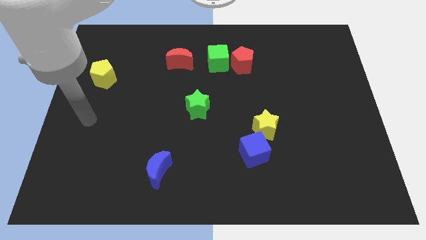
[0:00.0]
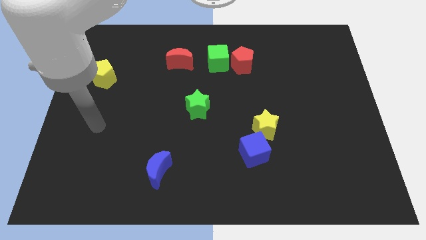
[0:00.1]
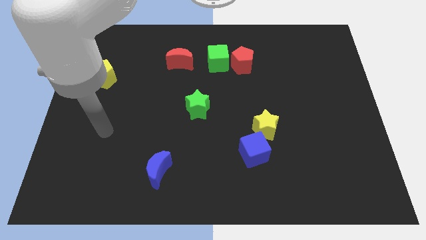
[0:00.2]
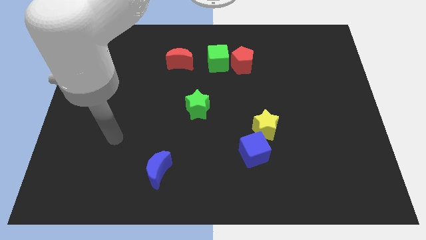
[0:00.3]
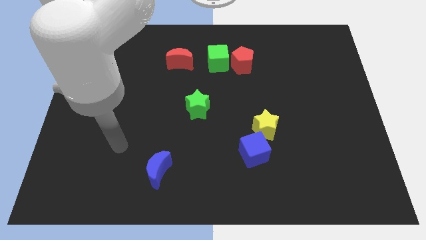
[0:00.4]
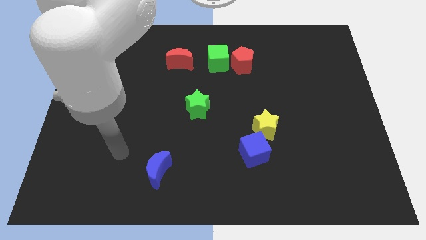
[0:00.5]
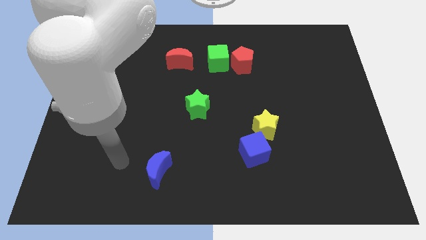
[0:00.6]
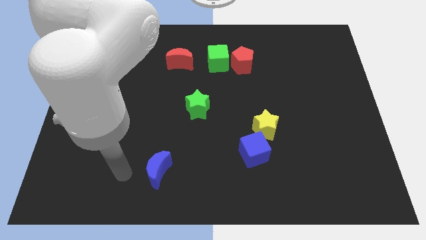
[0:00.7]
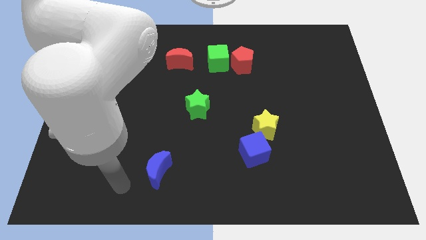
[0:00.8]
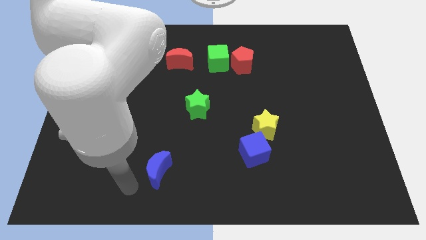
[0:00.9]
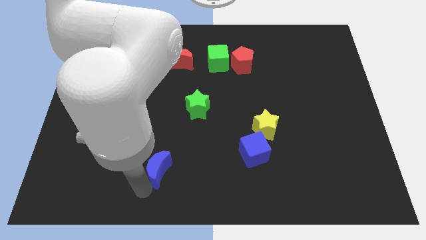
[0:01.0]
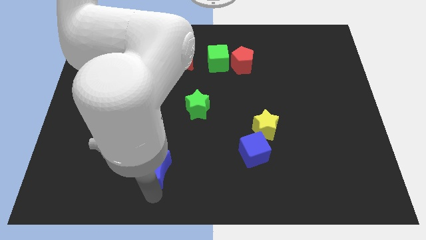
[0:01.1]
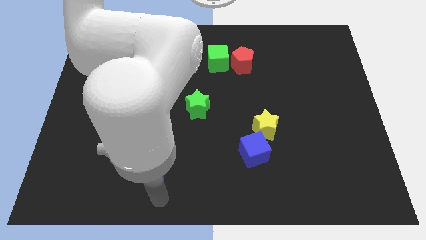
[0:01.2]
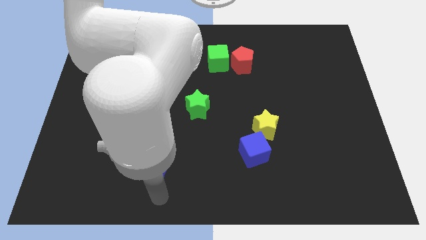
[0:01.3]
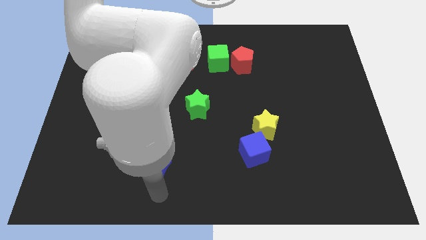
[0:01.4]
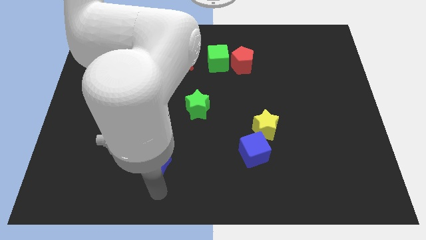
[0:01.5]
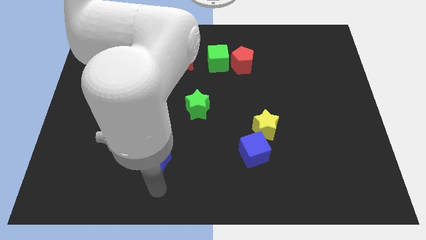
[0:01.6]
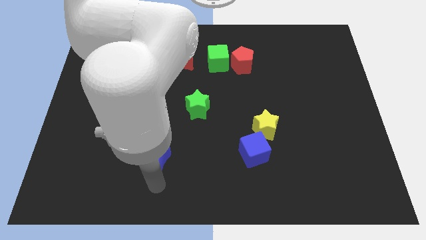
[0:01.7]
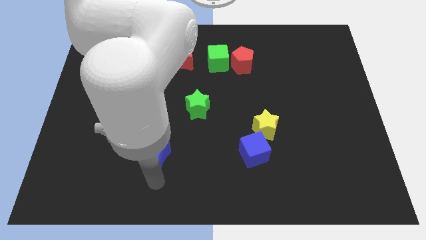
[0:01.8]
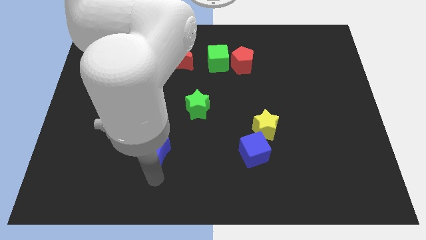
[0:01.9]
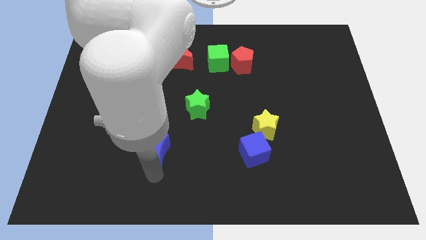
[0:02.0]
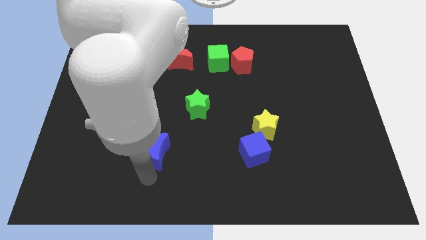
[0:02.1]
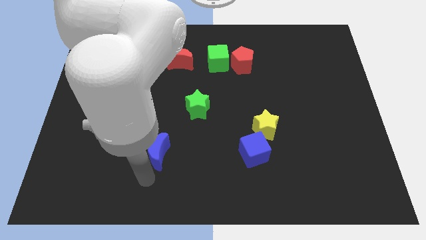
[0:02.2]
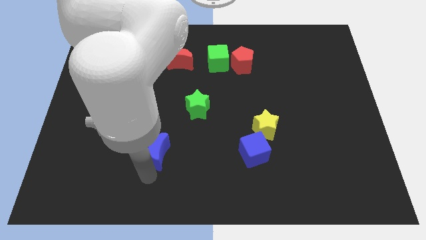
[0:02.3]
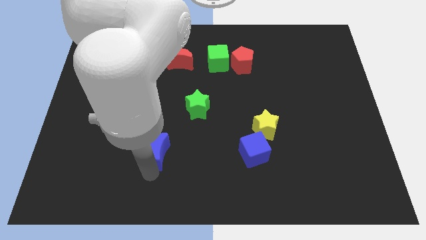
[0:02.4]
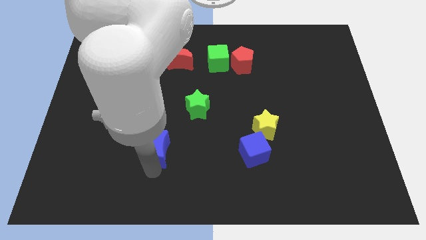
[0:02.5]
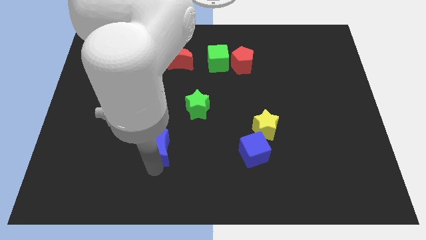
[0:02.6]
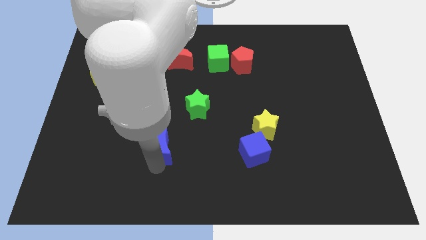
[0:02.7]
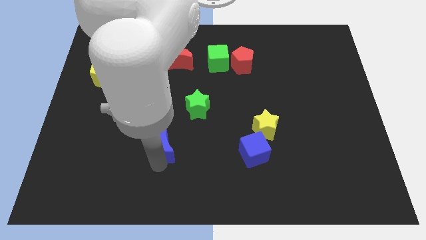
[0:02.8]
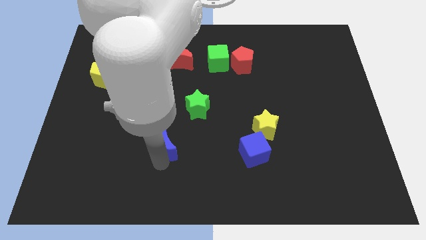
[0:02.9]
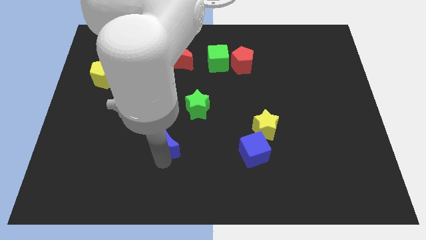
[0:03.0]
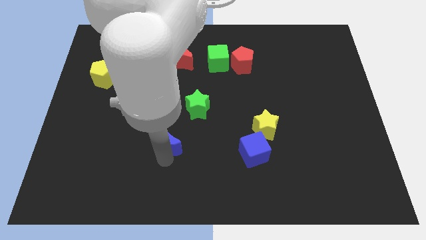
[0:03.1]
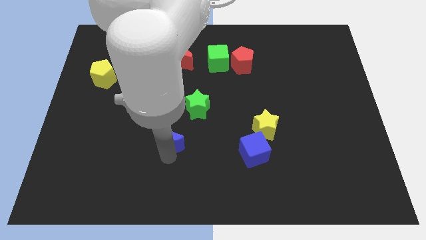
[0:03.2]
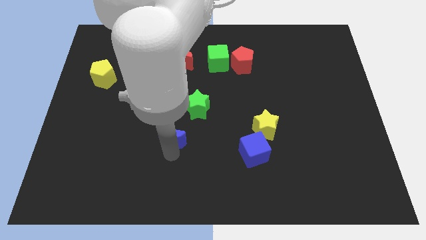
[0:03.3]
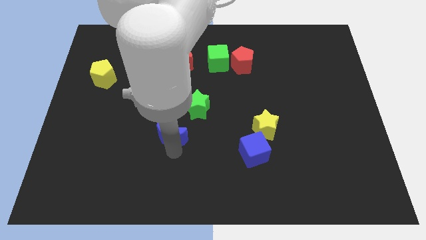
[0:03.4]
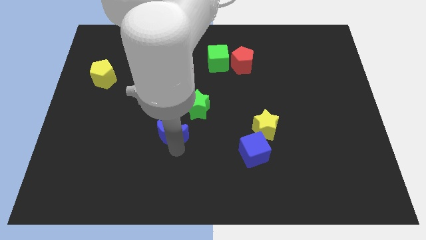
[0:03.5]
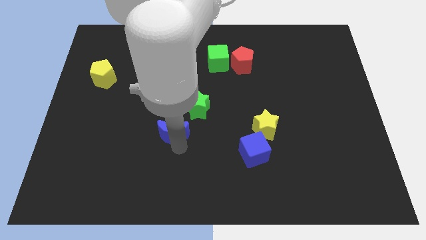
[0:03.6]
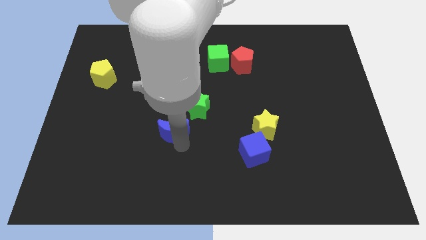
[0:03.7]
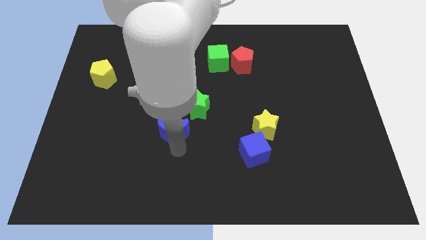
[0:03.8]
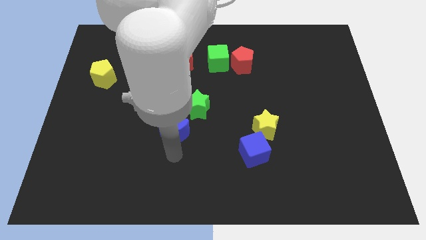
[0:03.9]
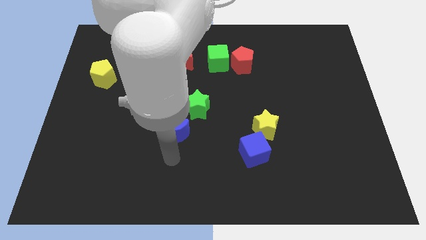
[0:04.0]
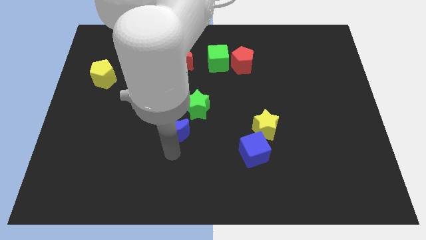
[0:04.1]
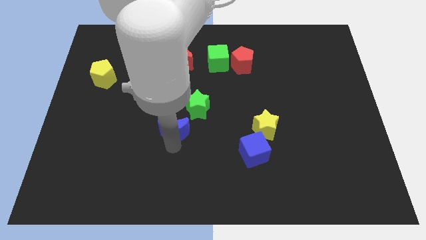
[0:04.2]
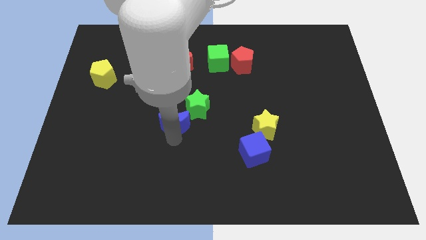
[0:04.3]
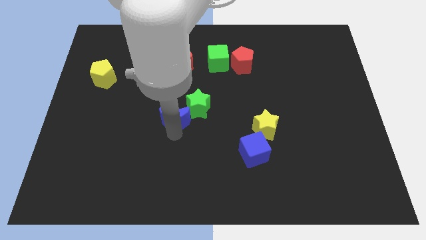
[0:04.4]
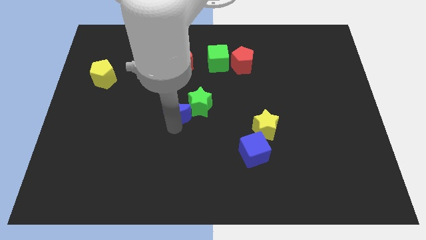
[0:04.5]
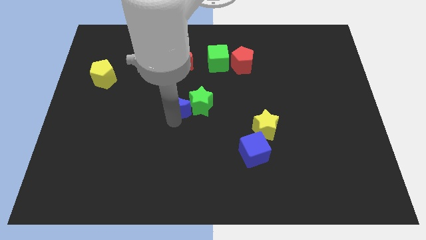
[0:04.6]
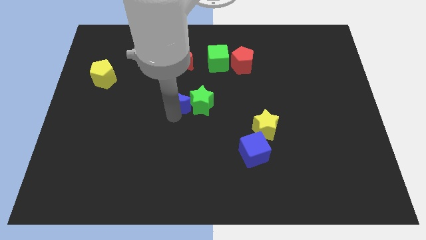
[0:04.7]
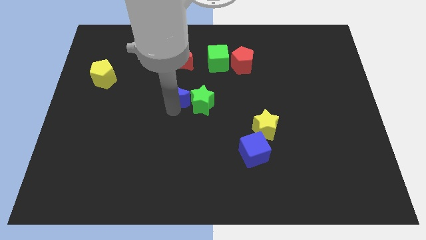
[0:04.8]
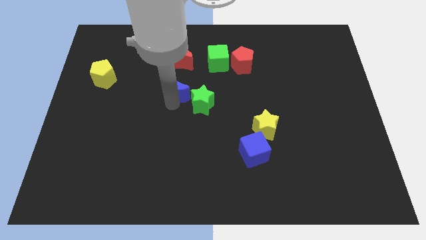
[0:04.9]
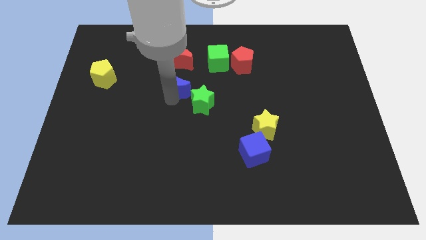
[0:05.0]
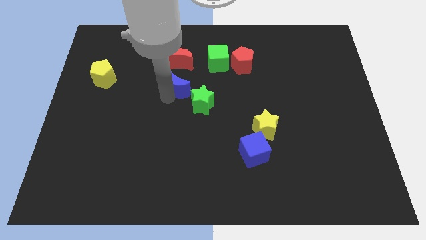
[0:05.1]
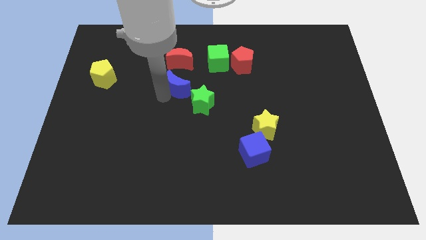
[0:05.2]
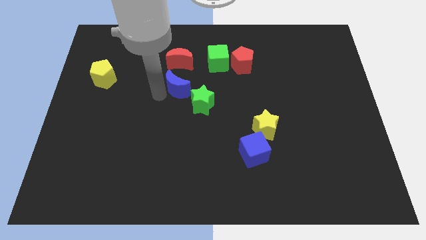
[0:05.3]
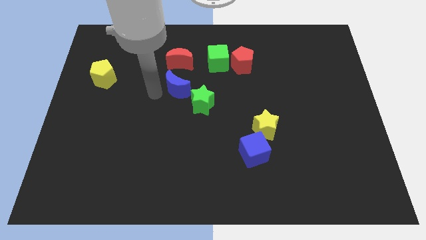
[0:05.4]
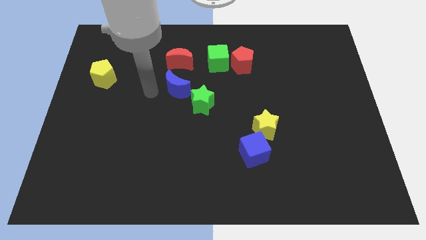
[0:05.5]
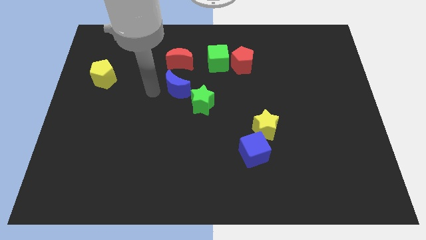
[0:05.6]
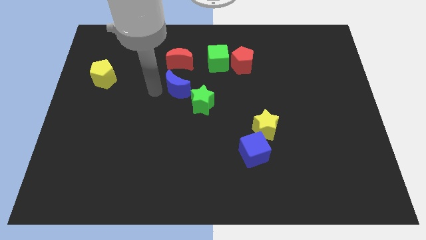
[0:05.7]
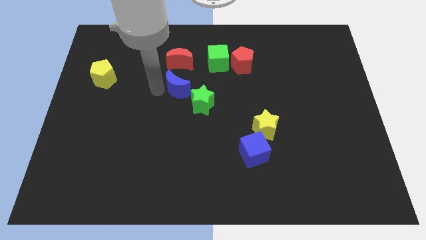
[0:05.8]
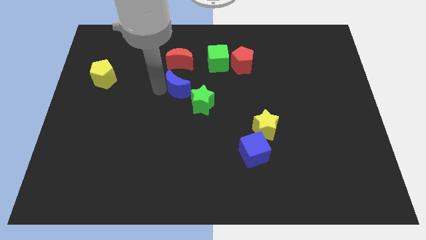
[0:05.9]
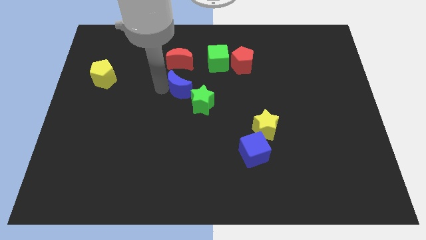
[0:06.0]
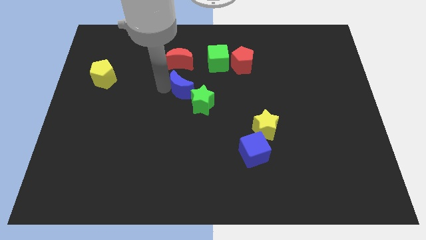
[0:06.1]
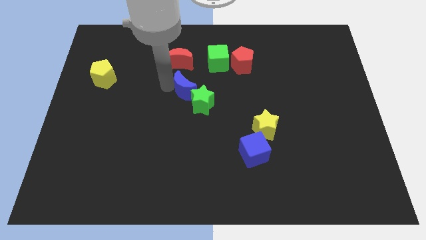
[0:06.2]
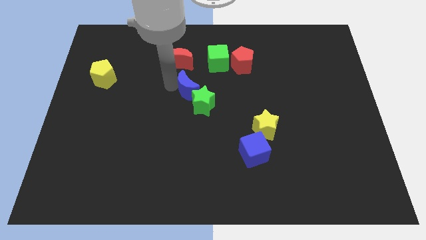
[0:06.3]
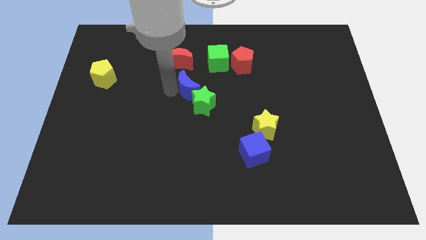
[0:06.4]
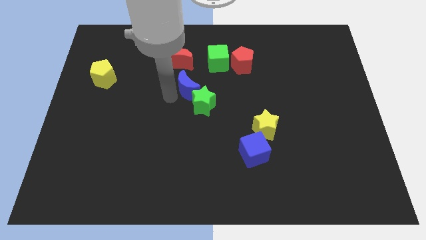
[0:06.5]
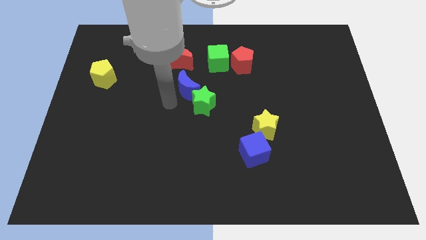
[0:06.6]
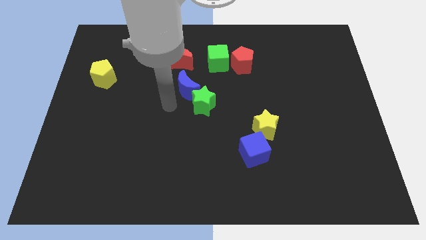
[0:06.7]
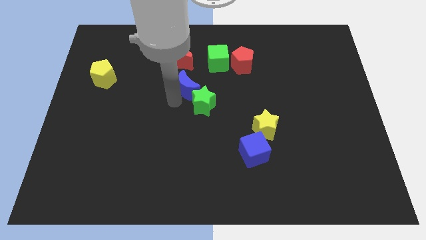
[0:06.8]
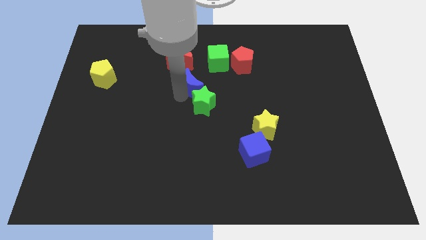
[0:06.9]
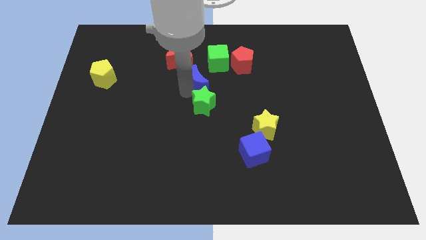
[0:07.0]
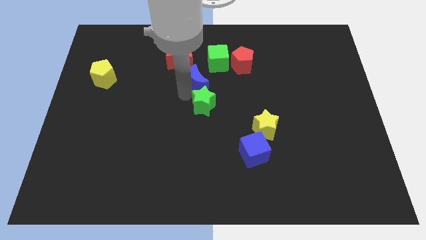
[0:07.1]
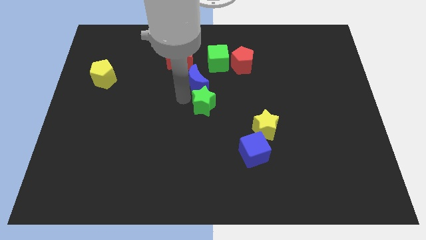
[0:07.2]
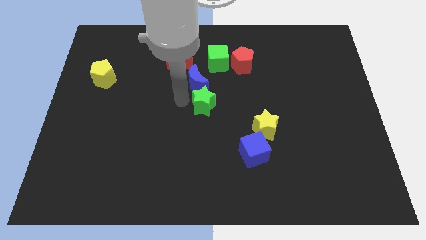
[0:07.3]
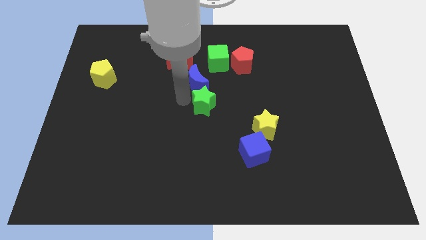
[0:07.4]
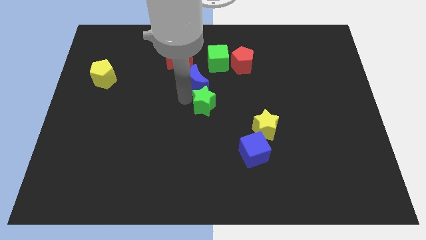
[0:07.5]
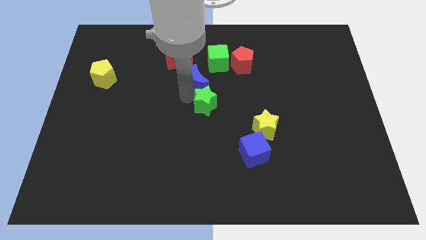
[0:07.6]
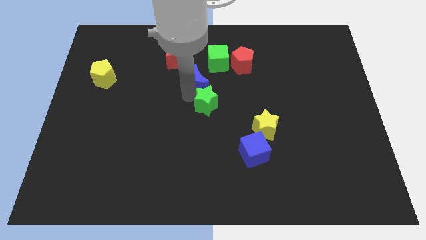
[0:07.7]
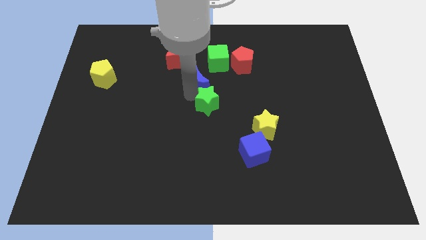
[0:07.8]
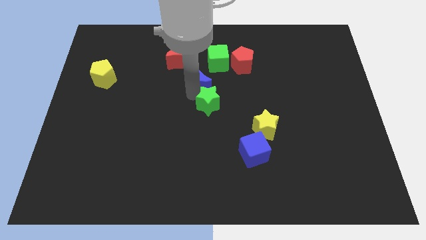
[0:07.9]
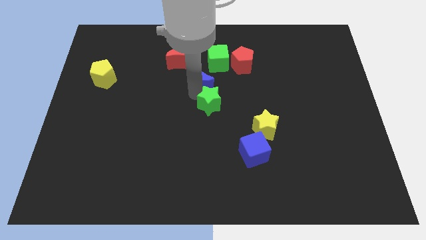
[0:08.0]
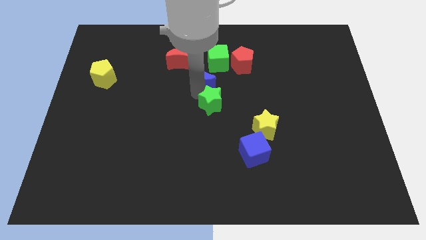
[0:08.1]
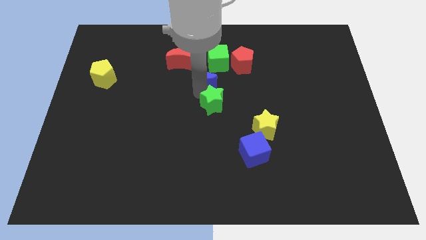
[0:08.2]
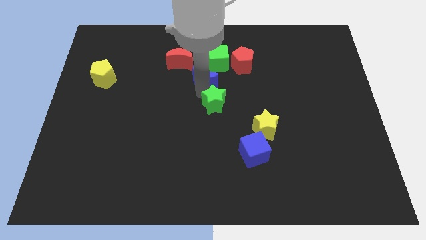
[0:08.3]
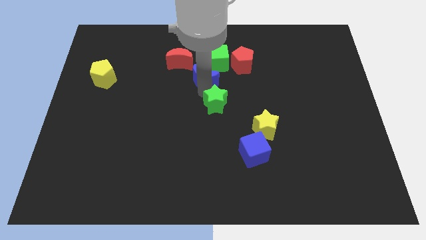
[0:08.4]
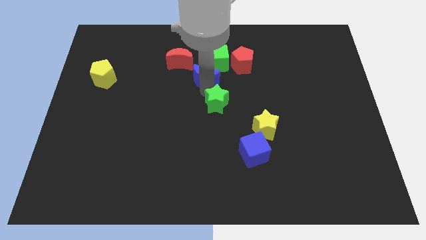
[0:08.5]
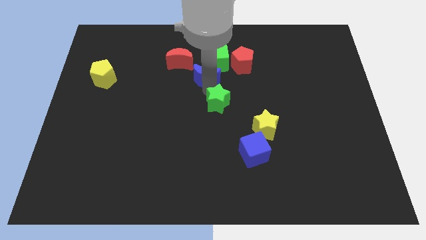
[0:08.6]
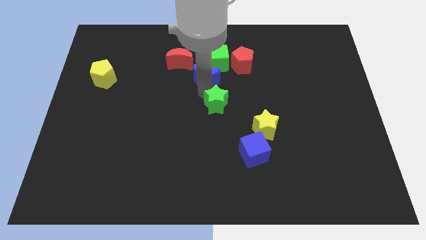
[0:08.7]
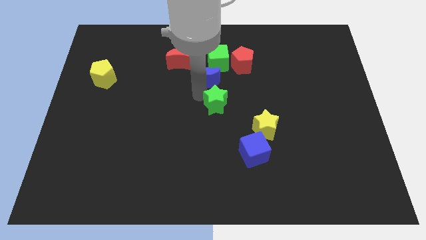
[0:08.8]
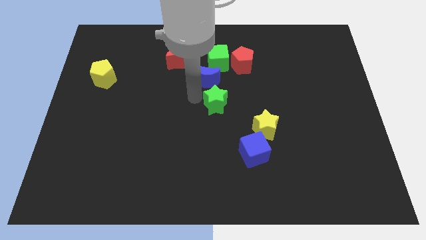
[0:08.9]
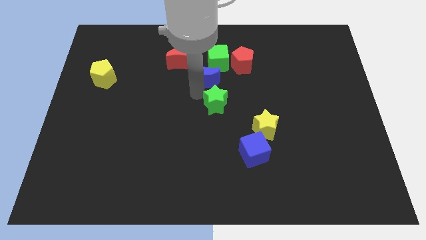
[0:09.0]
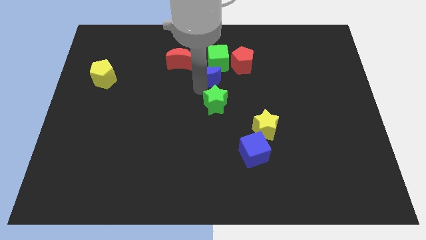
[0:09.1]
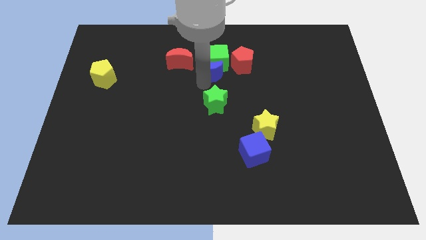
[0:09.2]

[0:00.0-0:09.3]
put the blue moon next to the green cube
